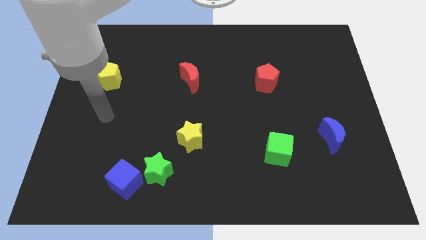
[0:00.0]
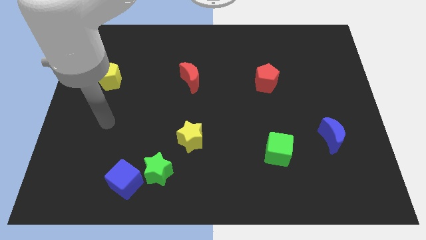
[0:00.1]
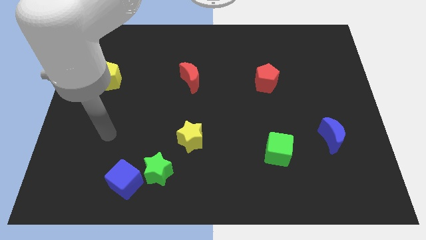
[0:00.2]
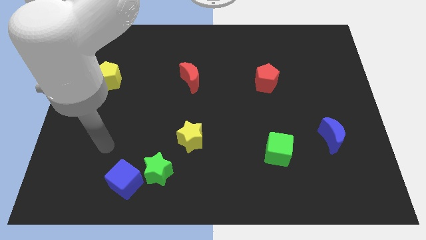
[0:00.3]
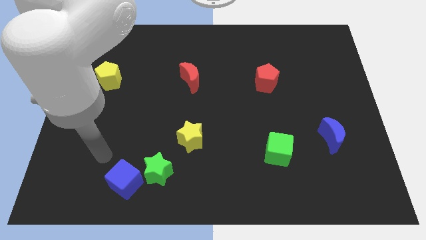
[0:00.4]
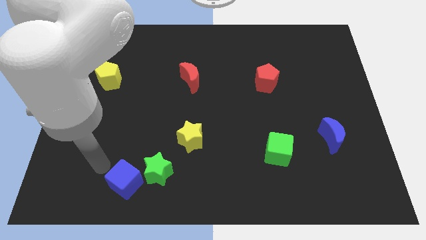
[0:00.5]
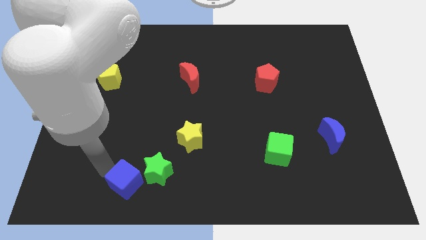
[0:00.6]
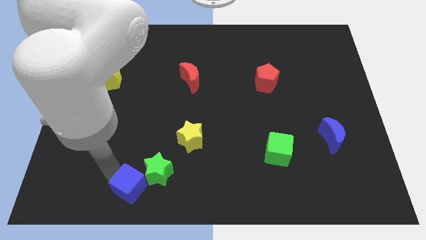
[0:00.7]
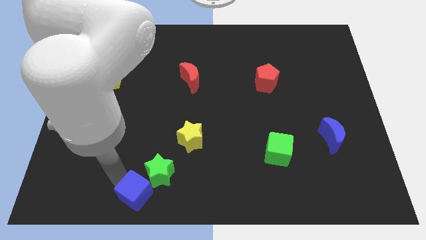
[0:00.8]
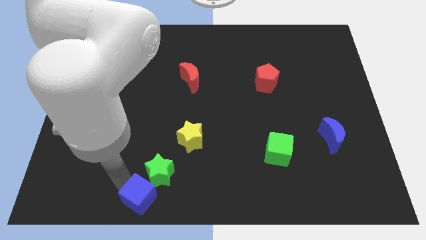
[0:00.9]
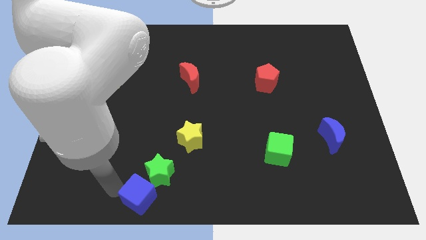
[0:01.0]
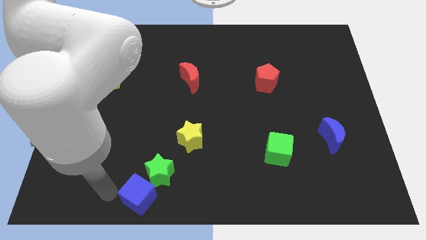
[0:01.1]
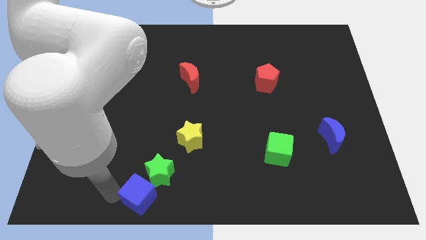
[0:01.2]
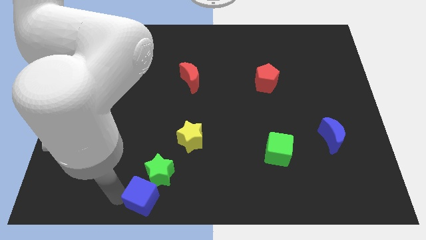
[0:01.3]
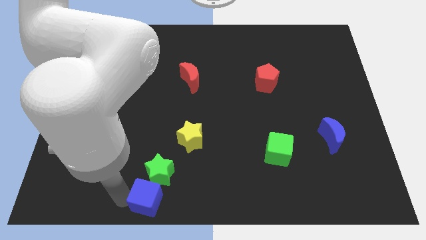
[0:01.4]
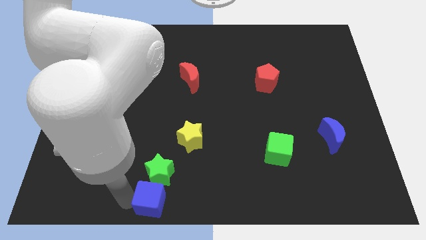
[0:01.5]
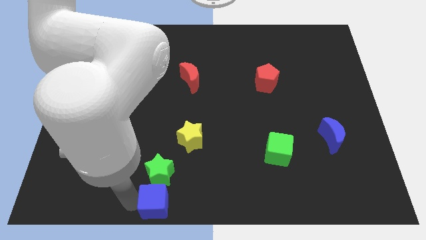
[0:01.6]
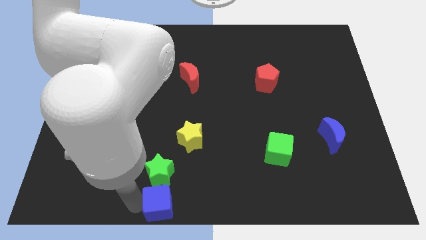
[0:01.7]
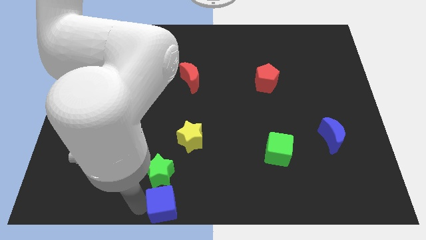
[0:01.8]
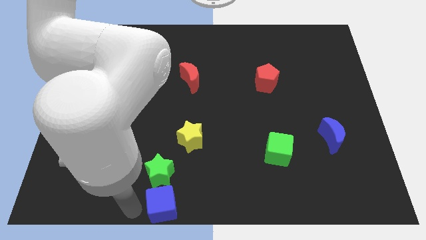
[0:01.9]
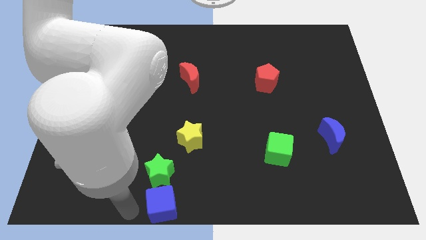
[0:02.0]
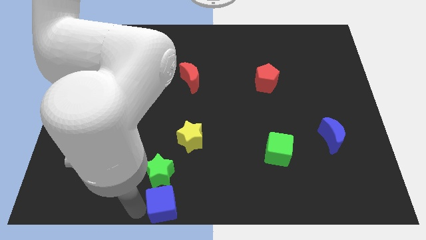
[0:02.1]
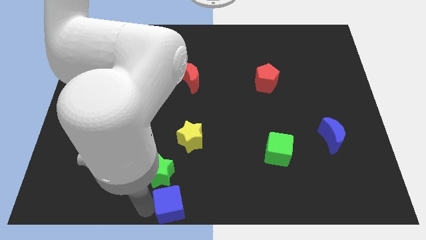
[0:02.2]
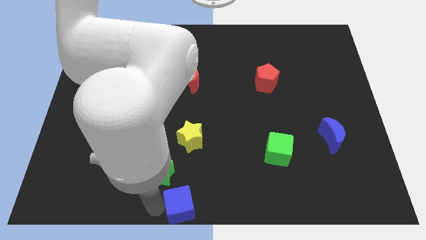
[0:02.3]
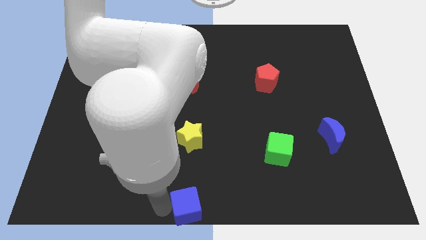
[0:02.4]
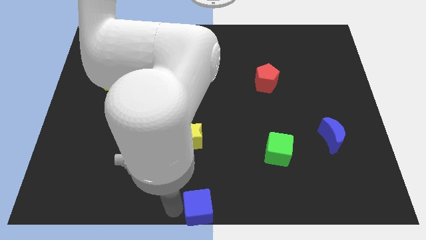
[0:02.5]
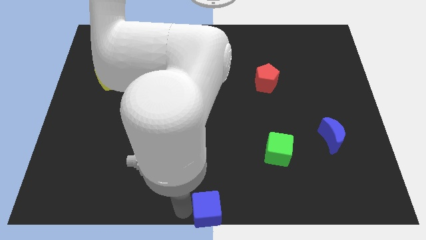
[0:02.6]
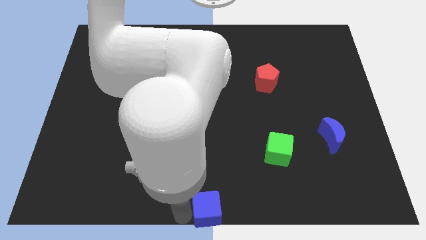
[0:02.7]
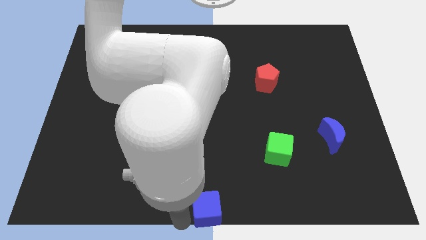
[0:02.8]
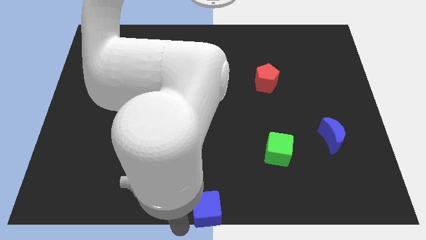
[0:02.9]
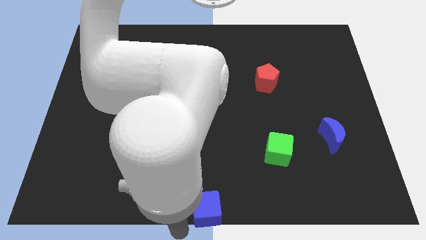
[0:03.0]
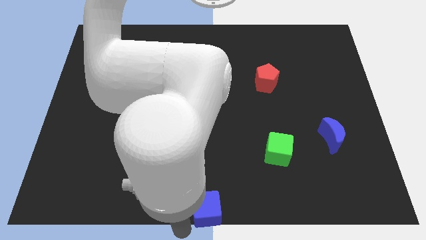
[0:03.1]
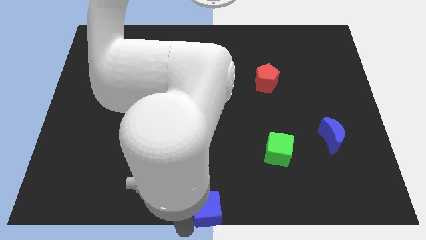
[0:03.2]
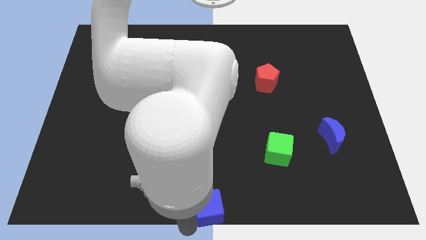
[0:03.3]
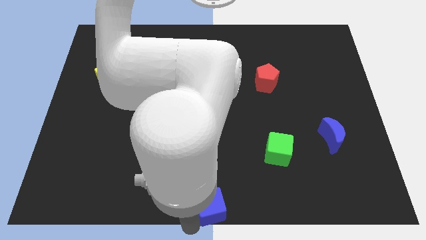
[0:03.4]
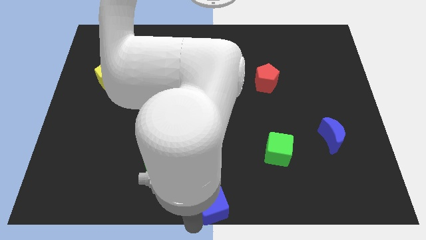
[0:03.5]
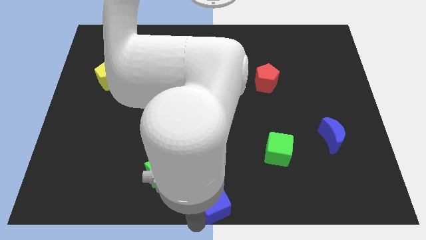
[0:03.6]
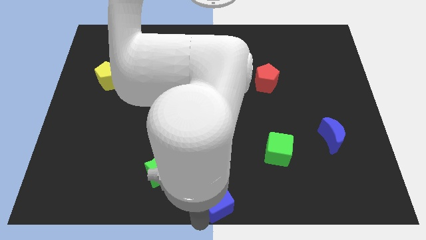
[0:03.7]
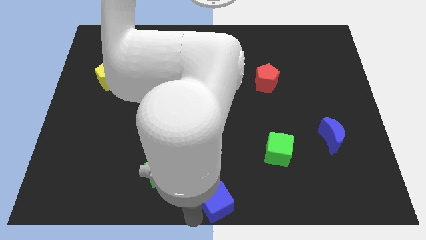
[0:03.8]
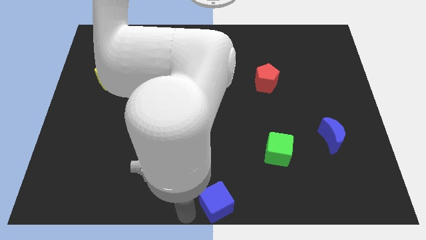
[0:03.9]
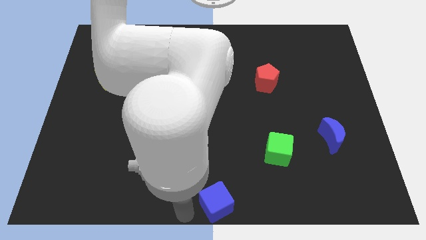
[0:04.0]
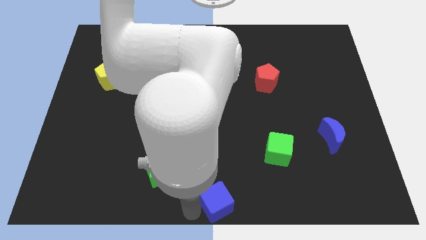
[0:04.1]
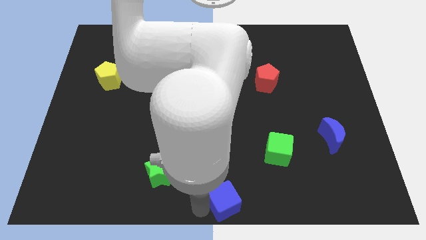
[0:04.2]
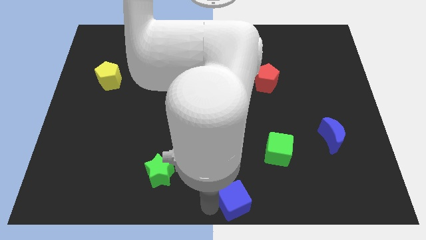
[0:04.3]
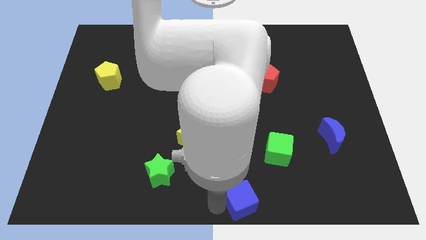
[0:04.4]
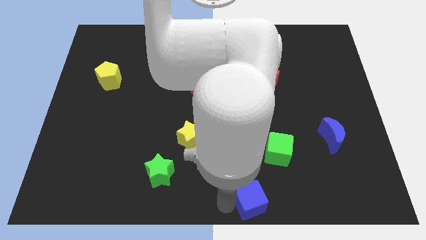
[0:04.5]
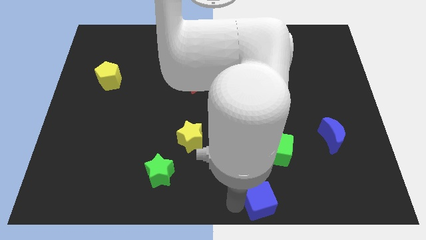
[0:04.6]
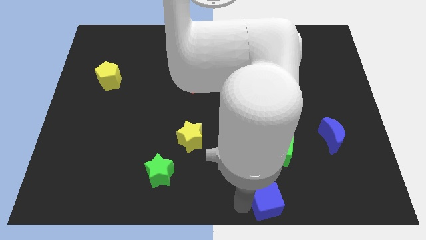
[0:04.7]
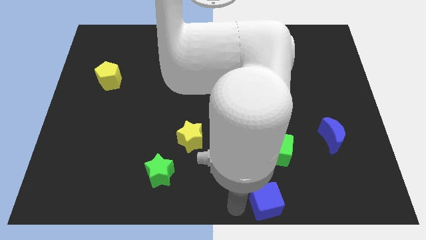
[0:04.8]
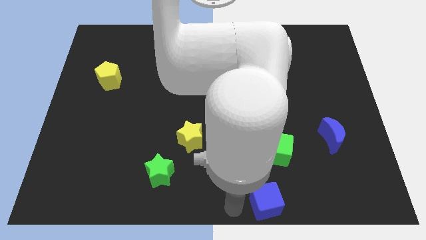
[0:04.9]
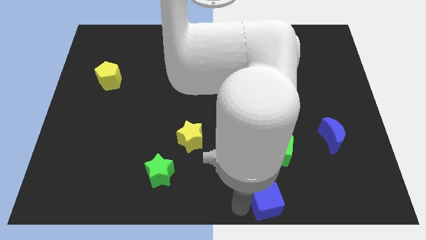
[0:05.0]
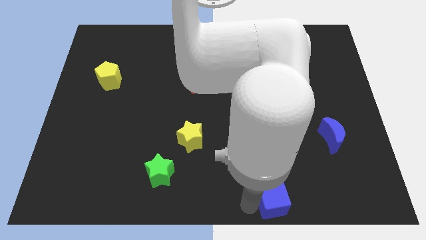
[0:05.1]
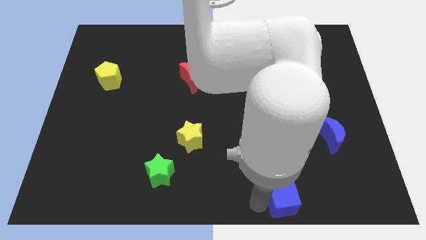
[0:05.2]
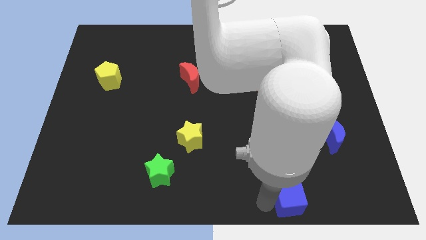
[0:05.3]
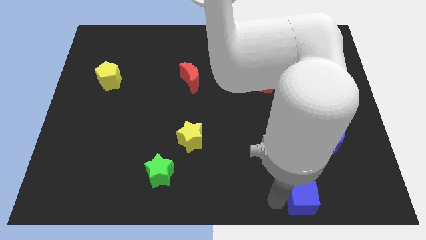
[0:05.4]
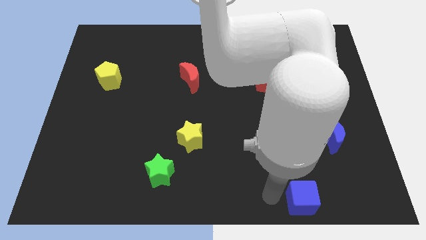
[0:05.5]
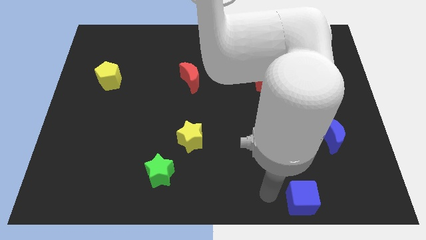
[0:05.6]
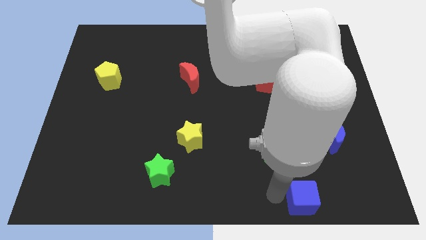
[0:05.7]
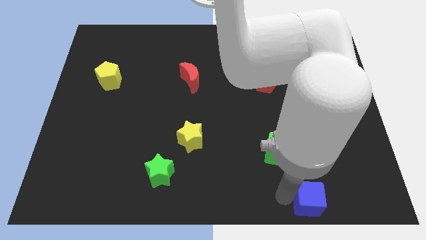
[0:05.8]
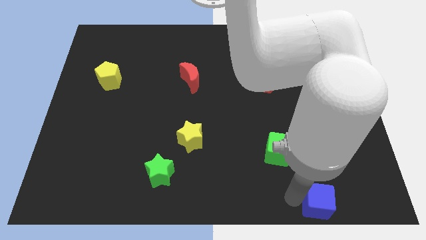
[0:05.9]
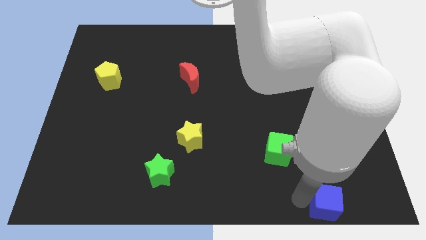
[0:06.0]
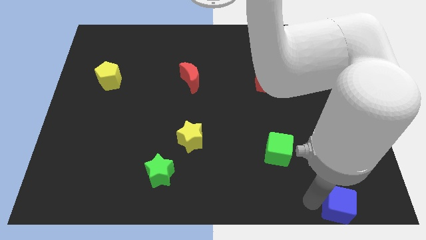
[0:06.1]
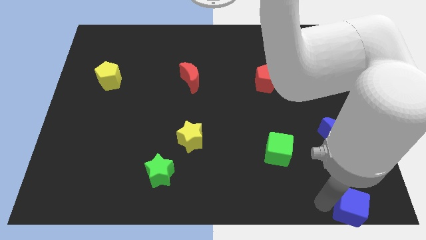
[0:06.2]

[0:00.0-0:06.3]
slide the blue cube to the bottom right
